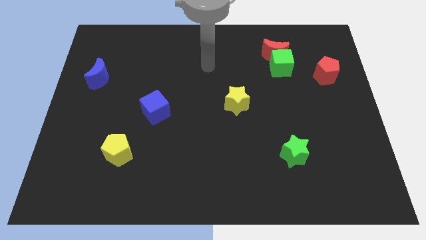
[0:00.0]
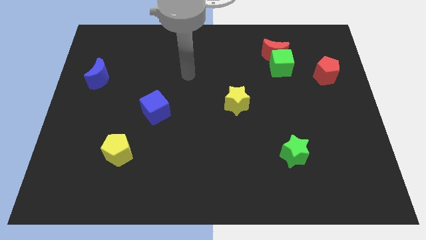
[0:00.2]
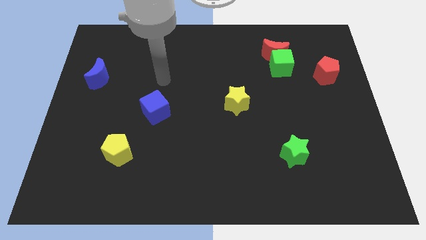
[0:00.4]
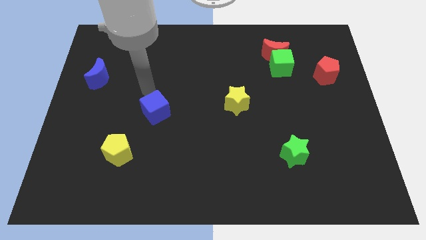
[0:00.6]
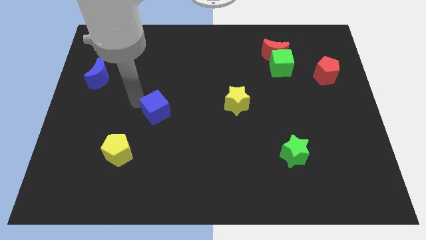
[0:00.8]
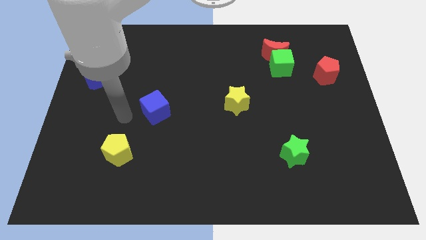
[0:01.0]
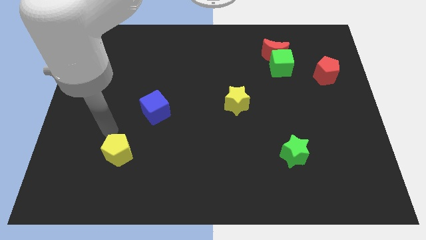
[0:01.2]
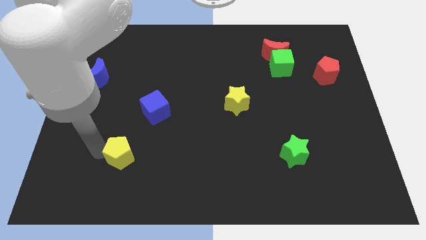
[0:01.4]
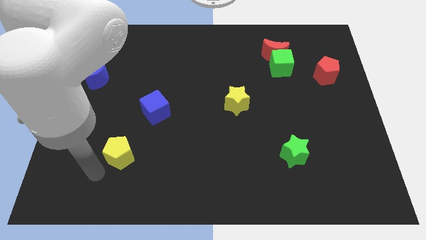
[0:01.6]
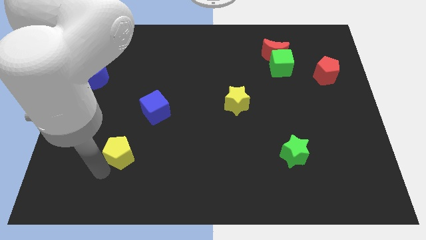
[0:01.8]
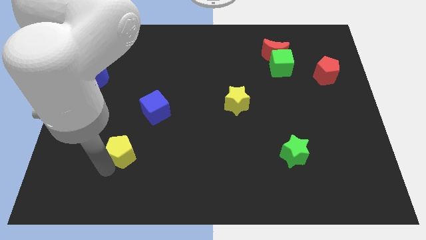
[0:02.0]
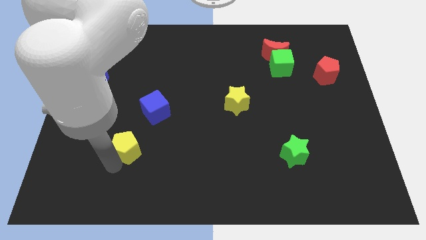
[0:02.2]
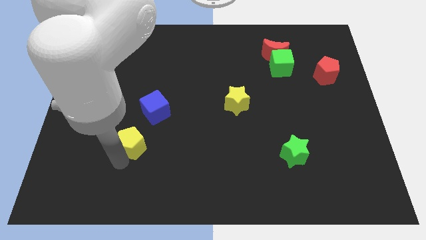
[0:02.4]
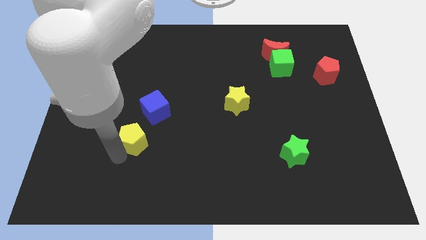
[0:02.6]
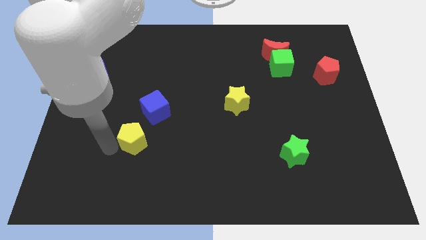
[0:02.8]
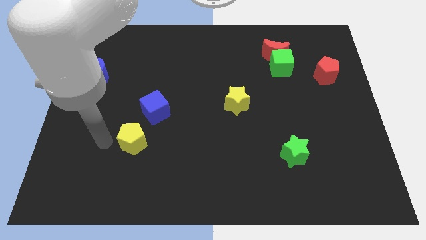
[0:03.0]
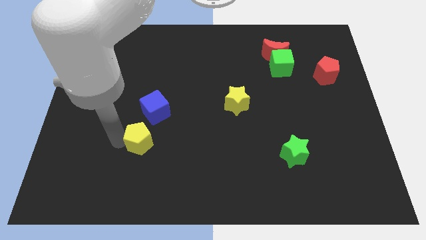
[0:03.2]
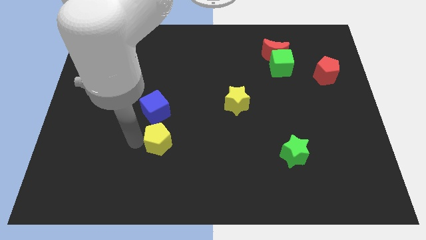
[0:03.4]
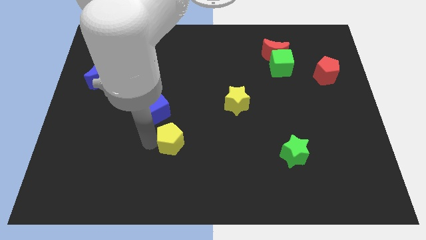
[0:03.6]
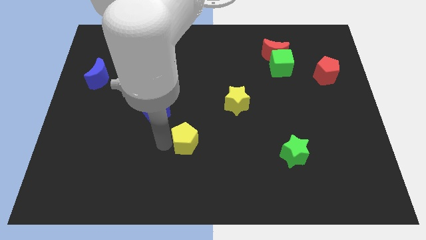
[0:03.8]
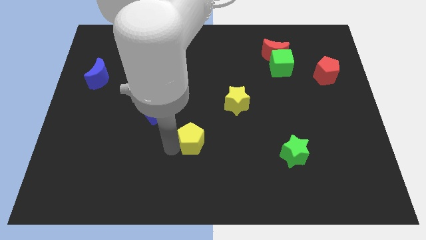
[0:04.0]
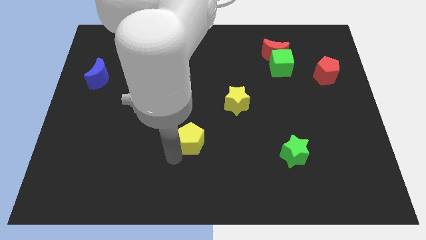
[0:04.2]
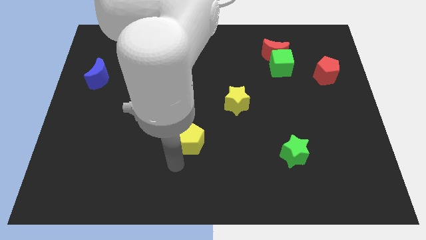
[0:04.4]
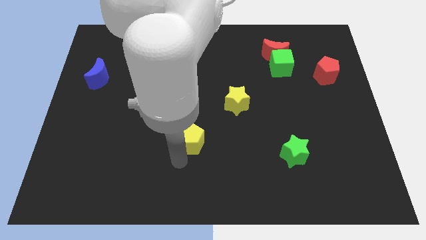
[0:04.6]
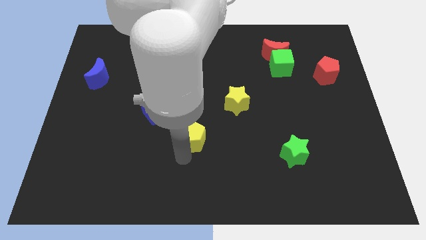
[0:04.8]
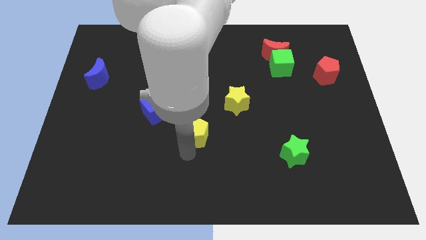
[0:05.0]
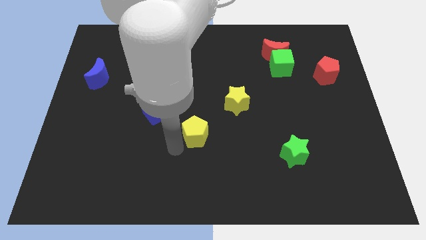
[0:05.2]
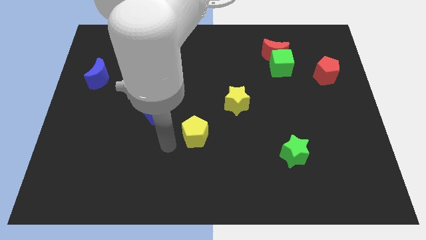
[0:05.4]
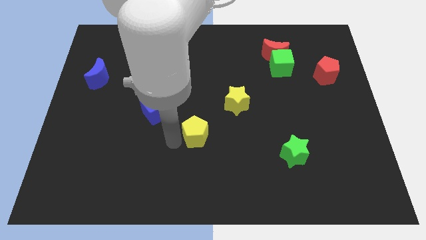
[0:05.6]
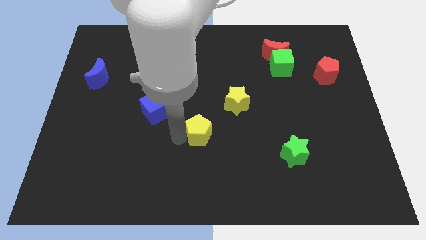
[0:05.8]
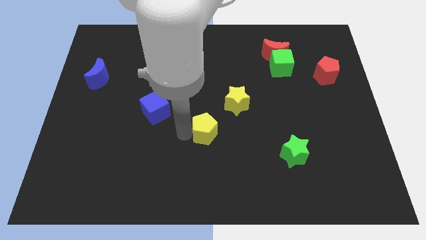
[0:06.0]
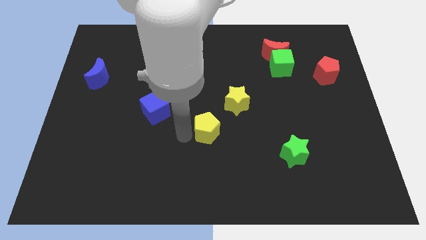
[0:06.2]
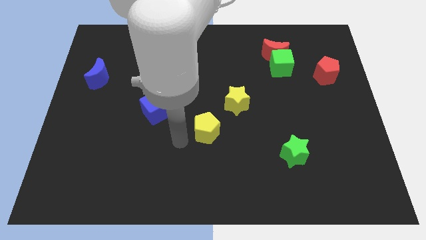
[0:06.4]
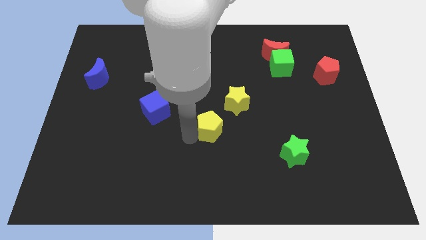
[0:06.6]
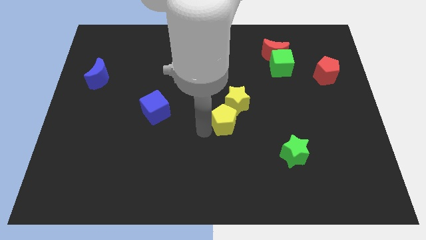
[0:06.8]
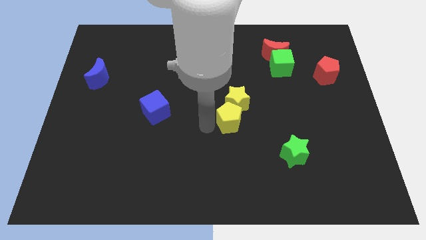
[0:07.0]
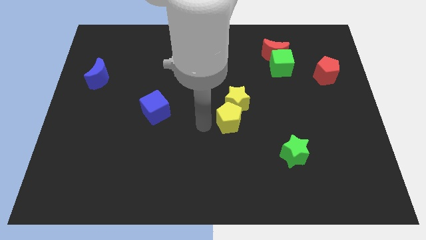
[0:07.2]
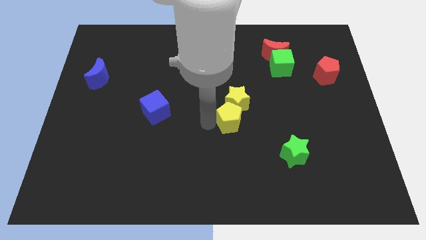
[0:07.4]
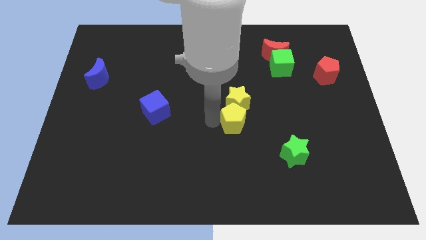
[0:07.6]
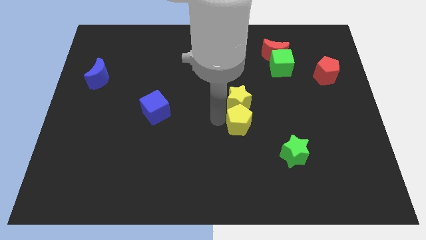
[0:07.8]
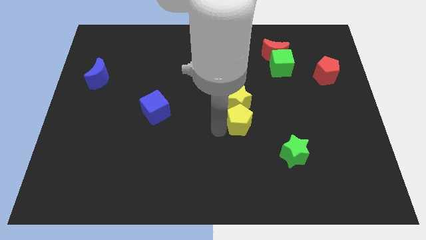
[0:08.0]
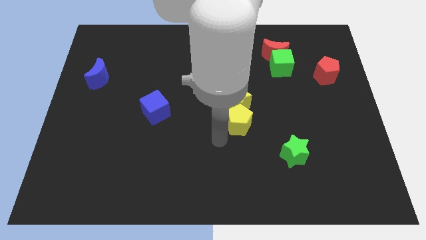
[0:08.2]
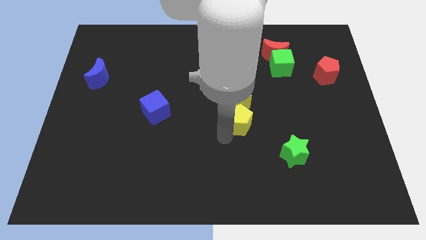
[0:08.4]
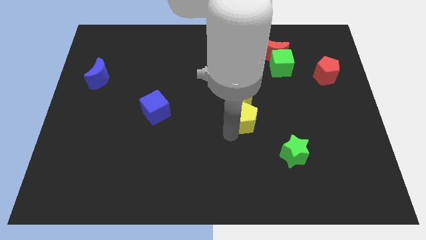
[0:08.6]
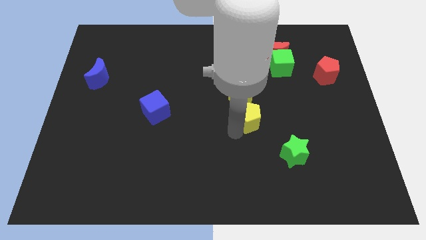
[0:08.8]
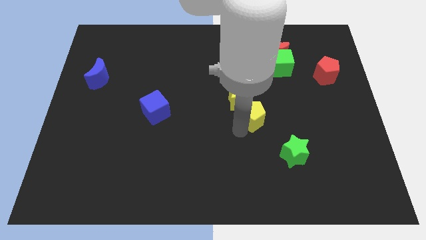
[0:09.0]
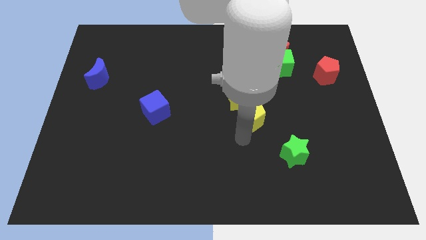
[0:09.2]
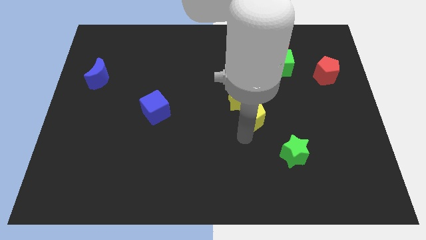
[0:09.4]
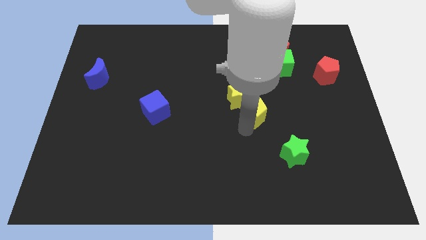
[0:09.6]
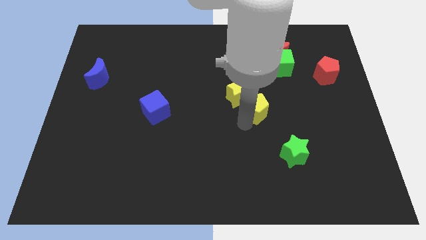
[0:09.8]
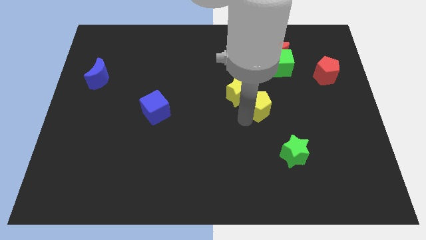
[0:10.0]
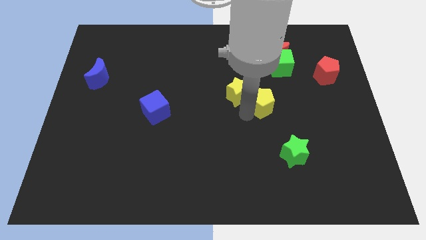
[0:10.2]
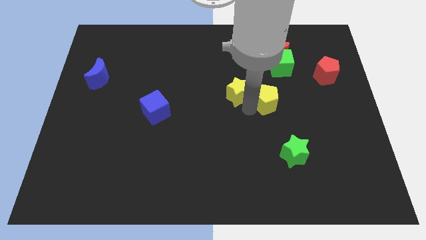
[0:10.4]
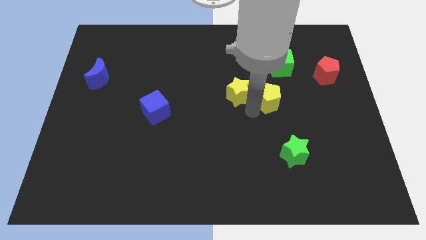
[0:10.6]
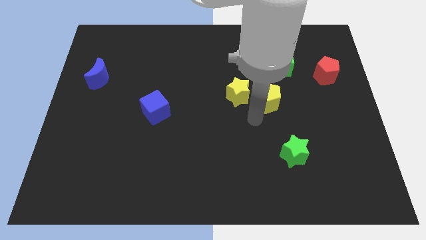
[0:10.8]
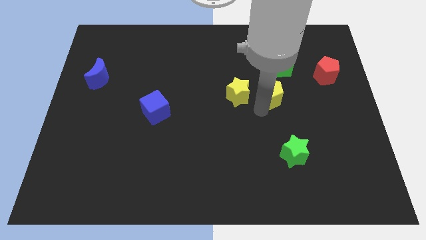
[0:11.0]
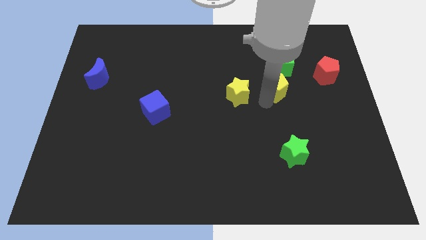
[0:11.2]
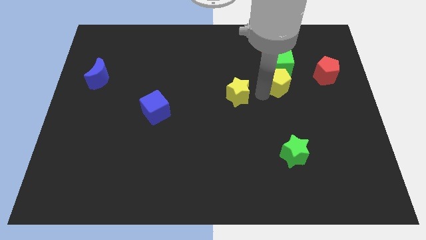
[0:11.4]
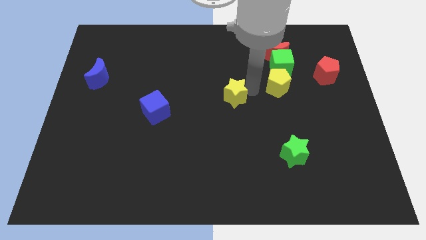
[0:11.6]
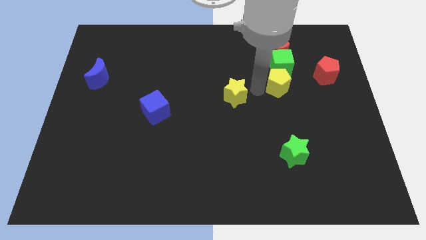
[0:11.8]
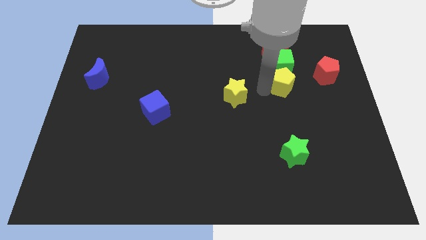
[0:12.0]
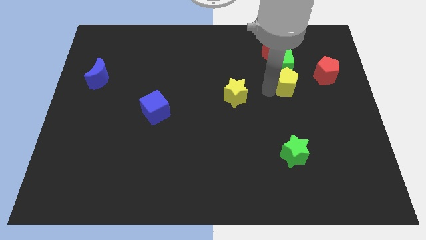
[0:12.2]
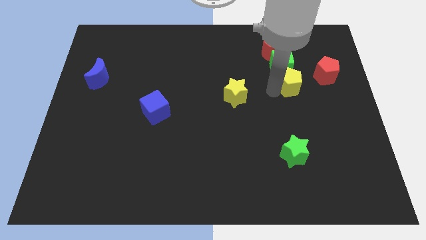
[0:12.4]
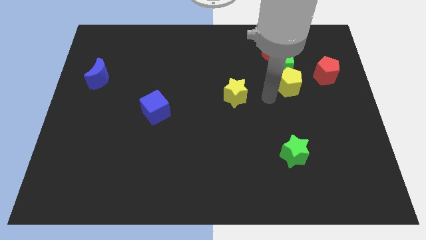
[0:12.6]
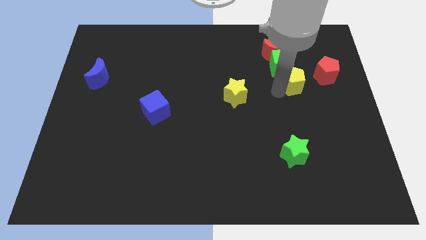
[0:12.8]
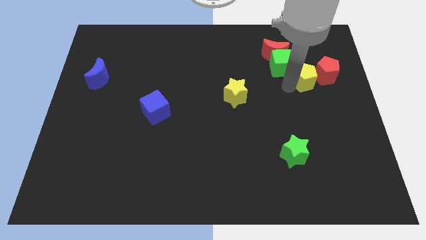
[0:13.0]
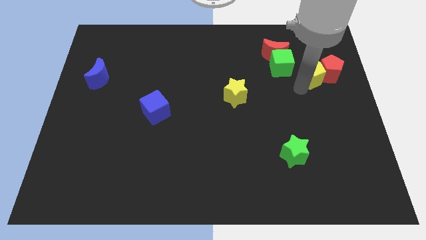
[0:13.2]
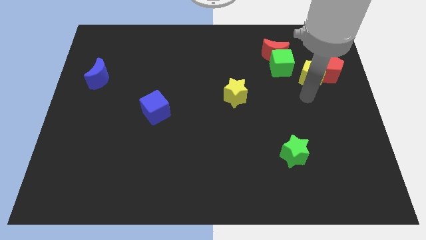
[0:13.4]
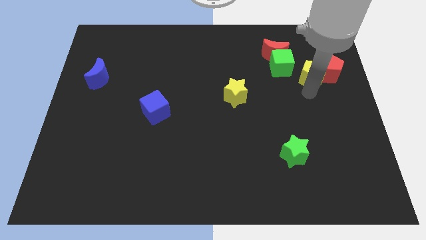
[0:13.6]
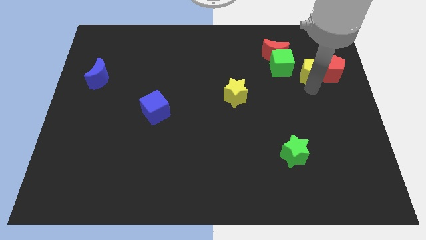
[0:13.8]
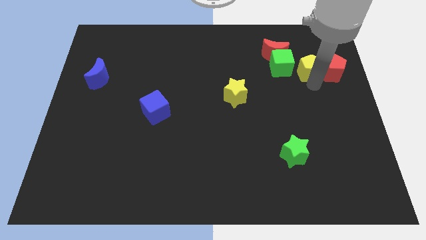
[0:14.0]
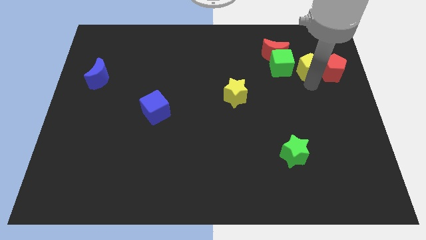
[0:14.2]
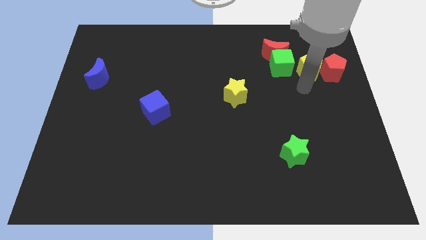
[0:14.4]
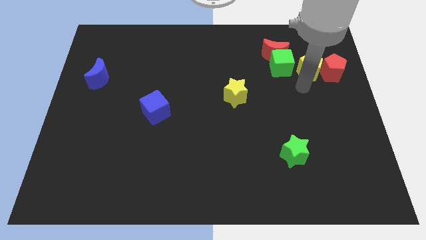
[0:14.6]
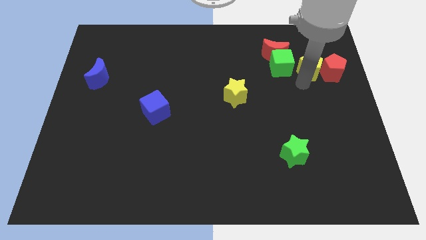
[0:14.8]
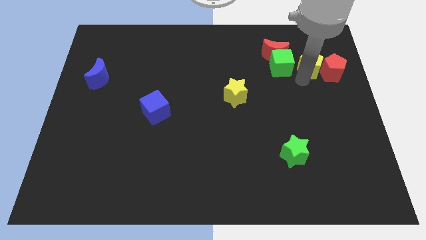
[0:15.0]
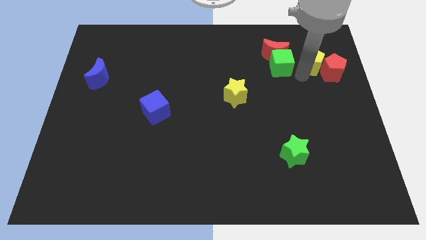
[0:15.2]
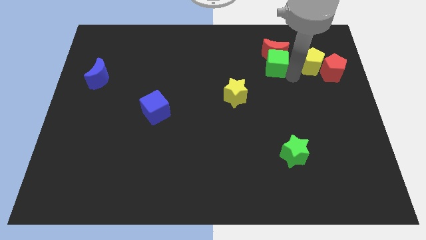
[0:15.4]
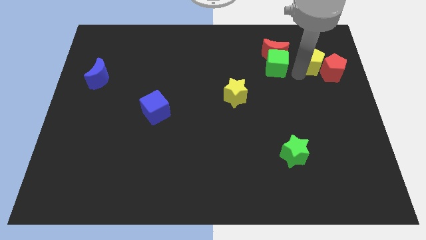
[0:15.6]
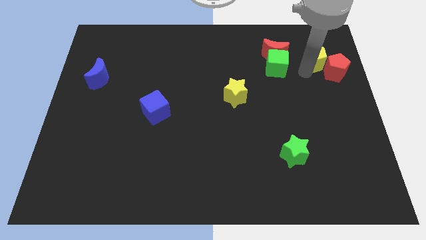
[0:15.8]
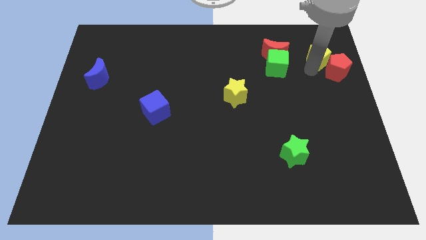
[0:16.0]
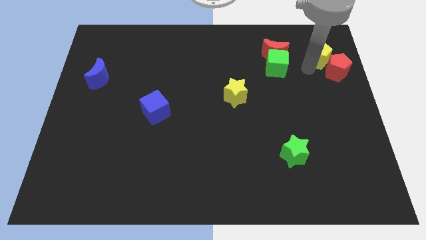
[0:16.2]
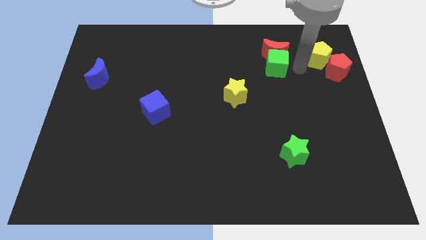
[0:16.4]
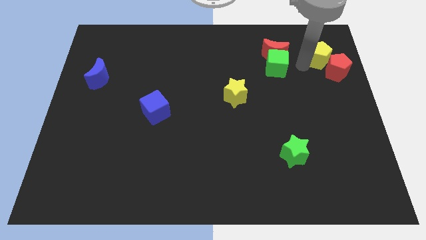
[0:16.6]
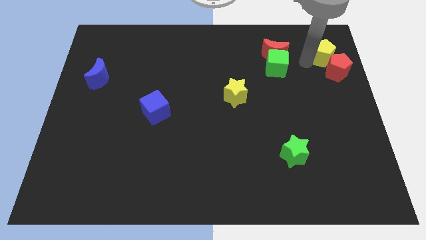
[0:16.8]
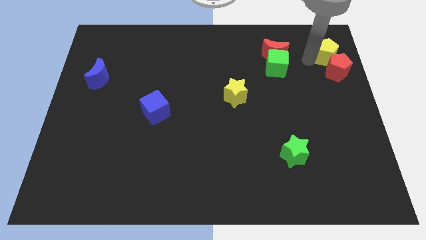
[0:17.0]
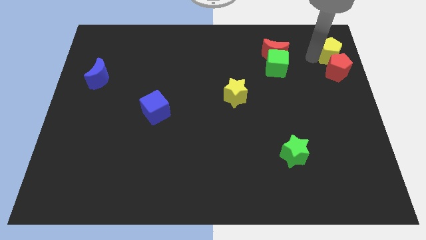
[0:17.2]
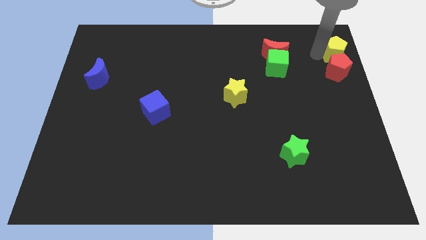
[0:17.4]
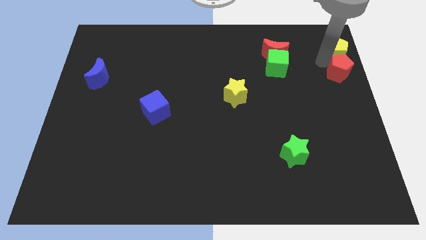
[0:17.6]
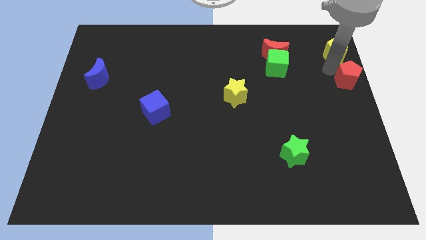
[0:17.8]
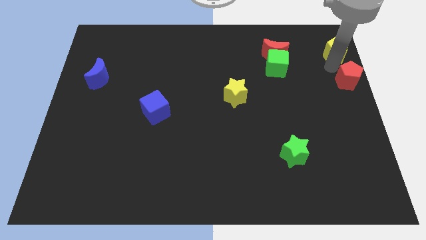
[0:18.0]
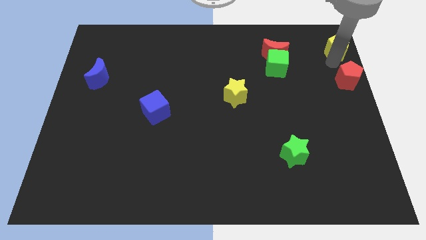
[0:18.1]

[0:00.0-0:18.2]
put the yellow pentagon to the top right
